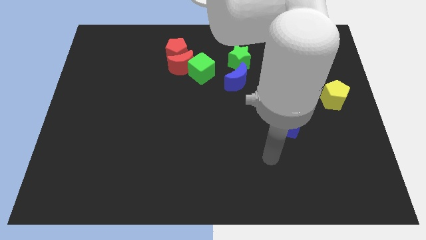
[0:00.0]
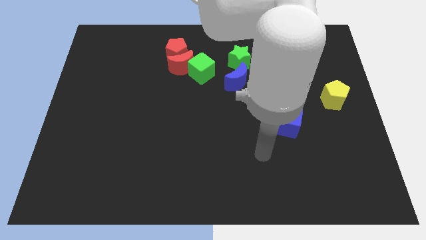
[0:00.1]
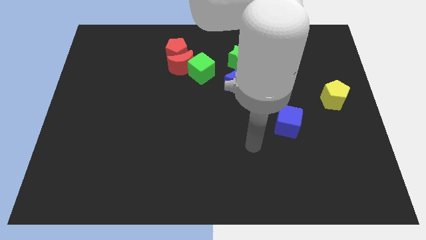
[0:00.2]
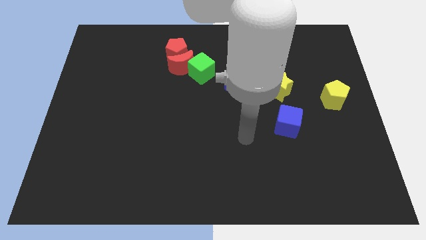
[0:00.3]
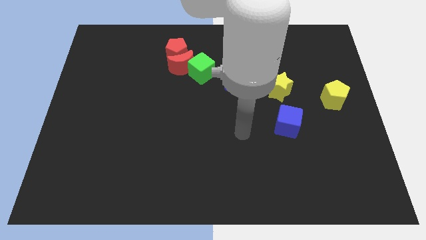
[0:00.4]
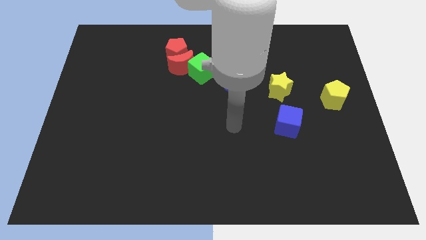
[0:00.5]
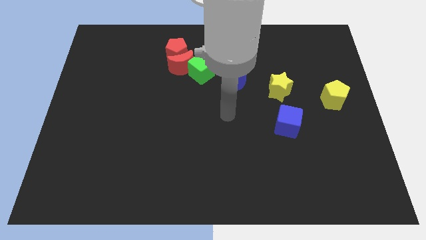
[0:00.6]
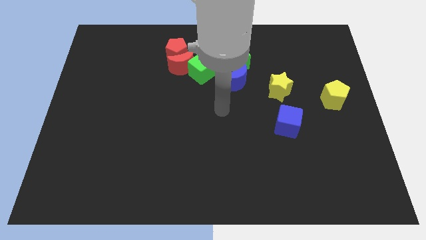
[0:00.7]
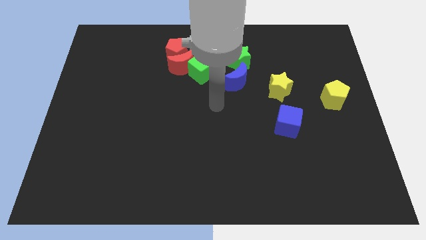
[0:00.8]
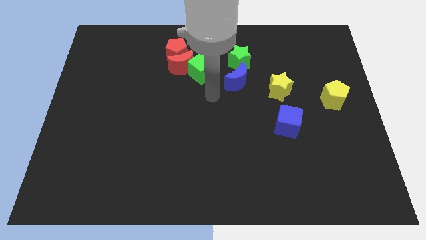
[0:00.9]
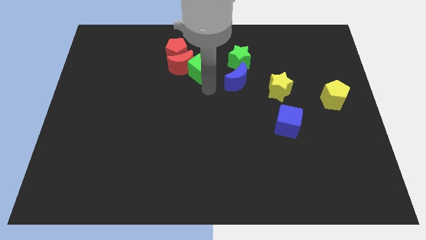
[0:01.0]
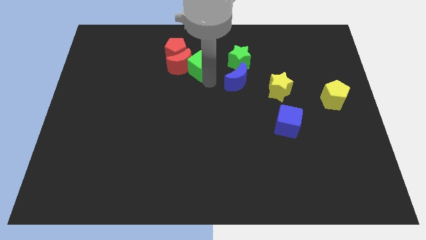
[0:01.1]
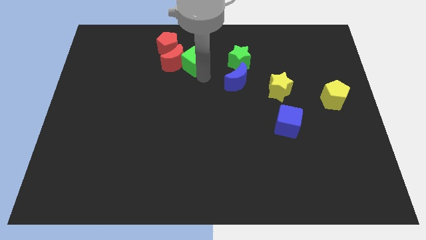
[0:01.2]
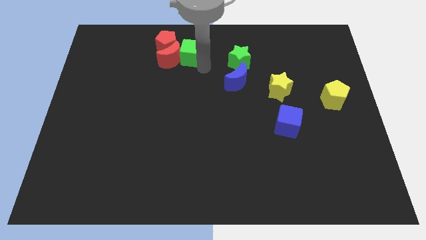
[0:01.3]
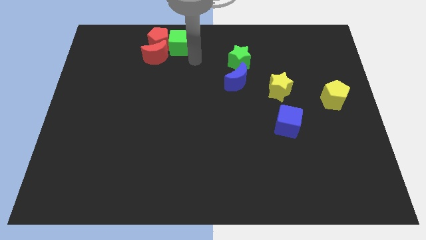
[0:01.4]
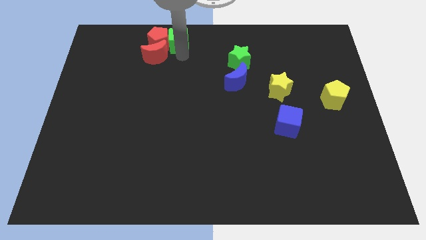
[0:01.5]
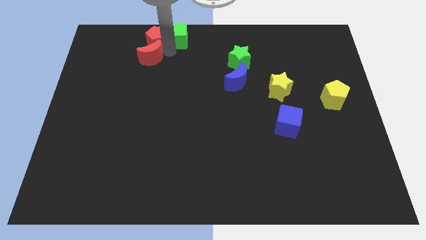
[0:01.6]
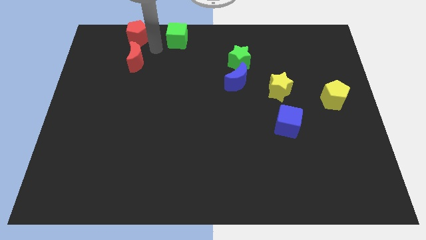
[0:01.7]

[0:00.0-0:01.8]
pull the red moon apart from the red pentagon and green cube

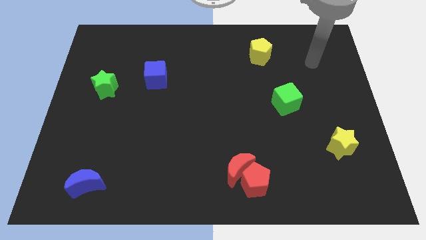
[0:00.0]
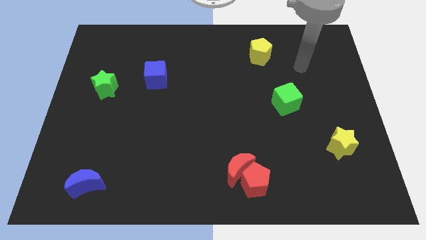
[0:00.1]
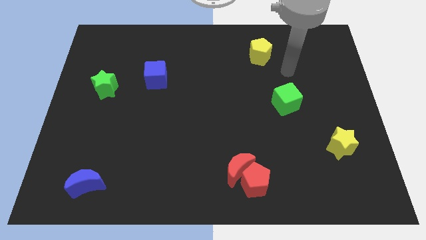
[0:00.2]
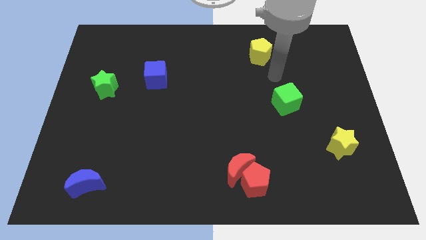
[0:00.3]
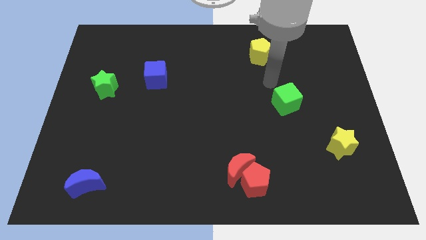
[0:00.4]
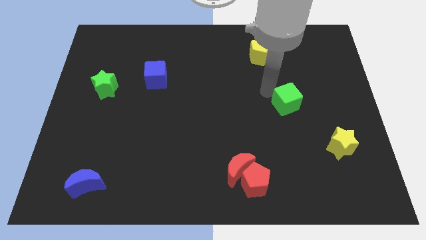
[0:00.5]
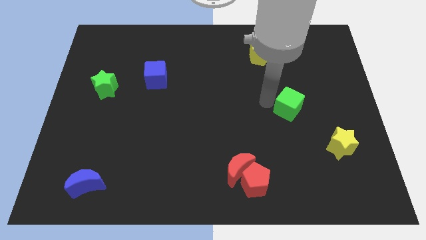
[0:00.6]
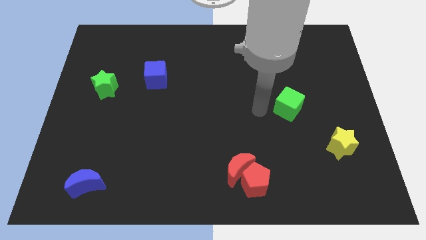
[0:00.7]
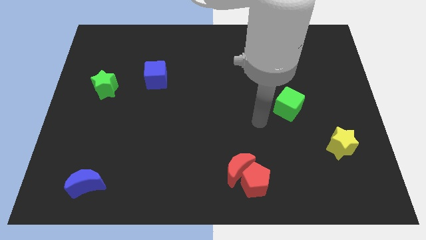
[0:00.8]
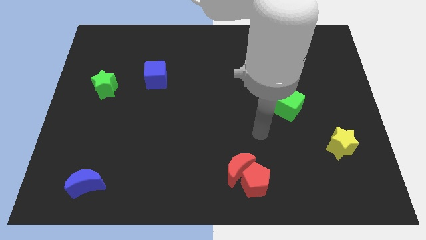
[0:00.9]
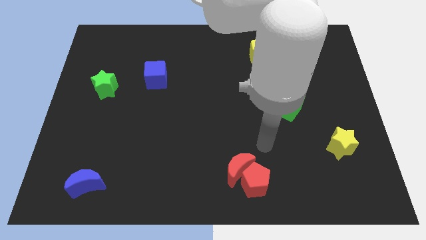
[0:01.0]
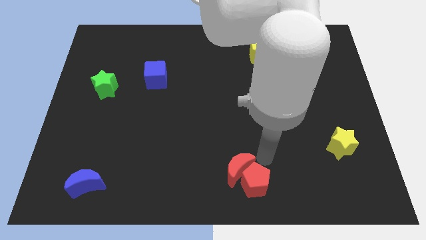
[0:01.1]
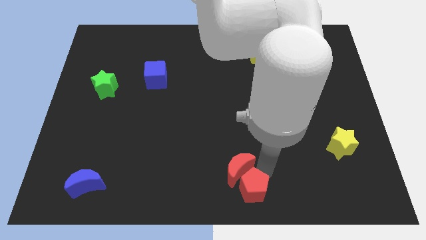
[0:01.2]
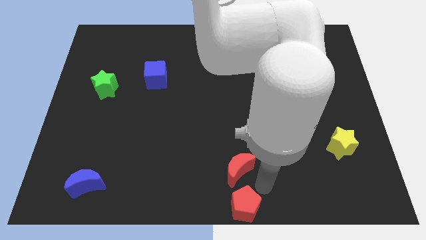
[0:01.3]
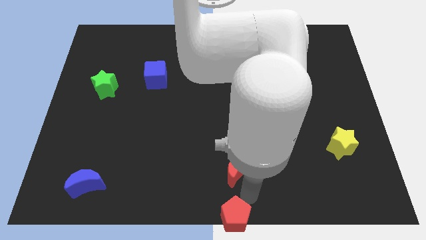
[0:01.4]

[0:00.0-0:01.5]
separate the red moon from the red pentagon

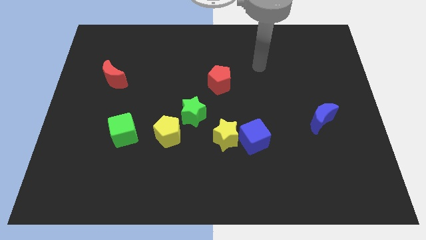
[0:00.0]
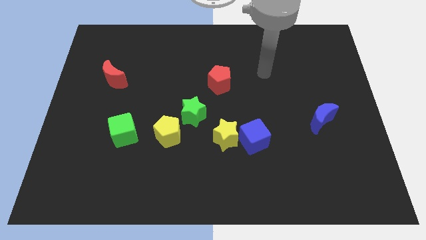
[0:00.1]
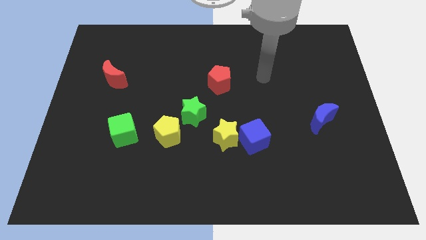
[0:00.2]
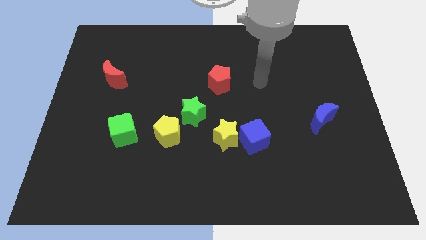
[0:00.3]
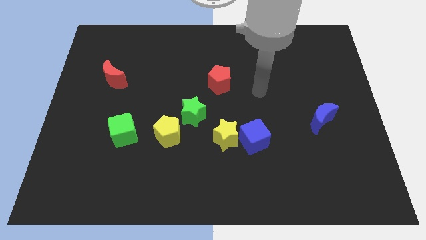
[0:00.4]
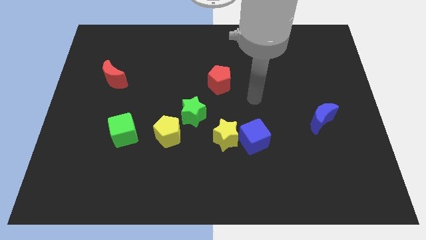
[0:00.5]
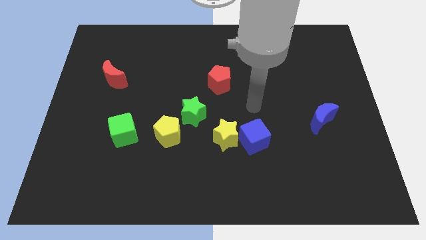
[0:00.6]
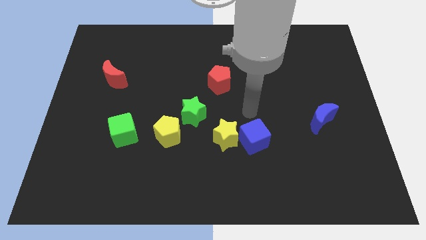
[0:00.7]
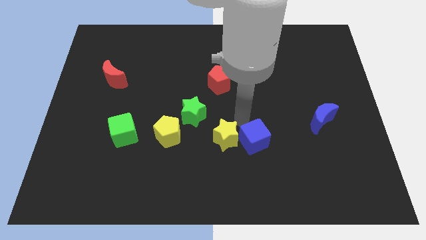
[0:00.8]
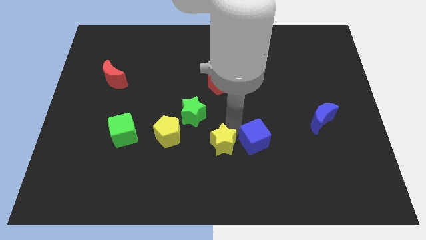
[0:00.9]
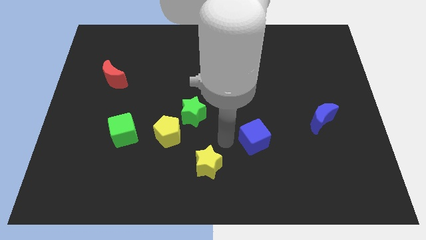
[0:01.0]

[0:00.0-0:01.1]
pull the blue cube apart from the yellow star

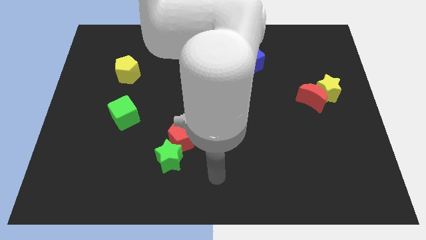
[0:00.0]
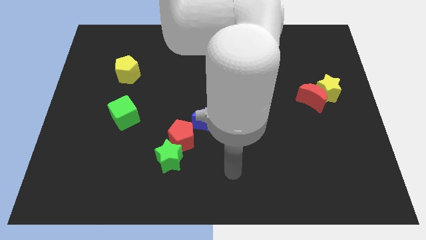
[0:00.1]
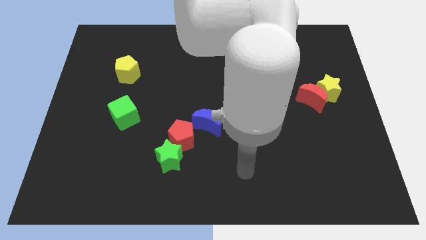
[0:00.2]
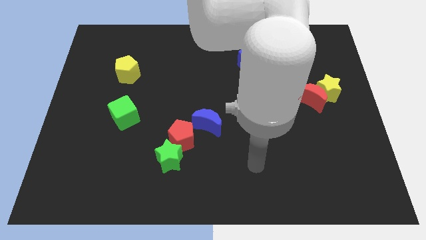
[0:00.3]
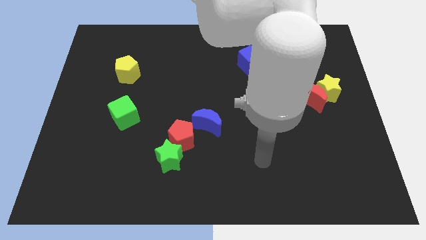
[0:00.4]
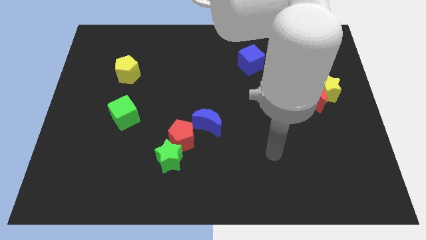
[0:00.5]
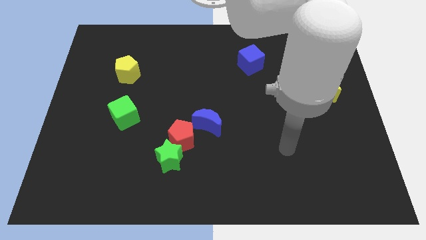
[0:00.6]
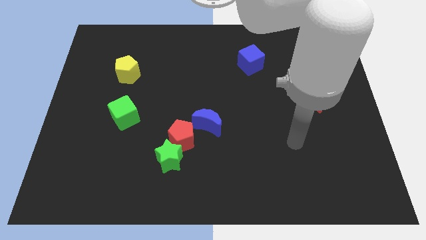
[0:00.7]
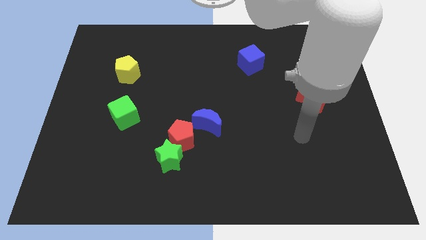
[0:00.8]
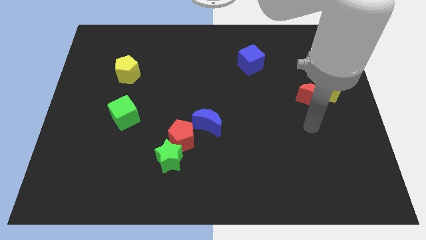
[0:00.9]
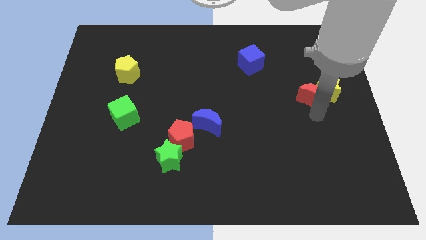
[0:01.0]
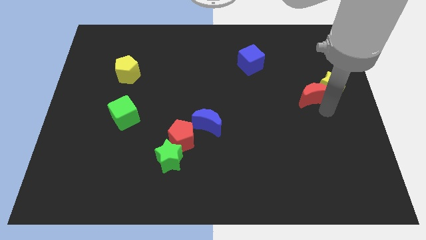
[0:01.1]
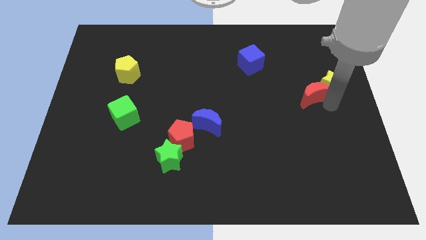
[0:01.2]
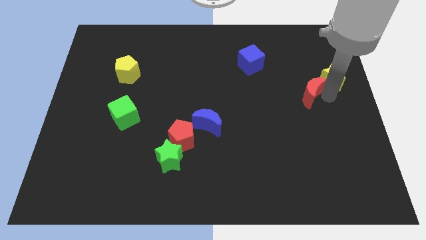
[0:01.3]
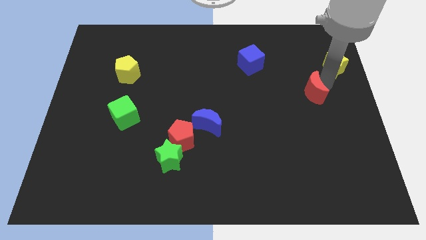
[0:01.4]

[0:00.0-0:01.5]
move the red moon away from the yellow star

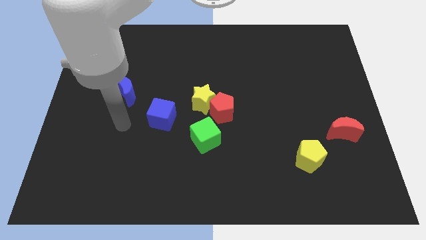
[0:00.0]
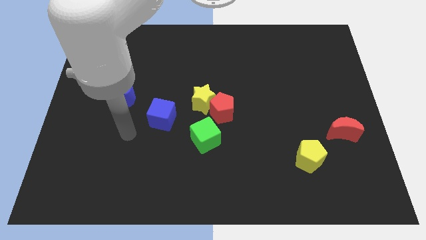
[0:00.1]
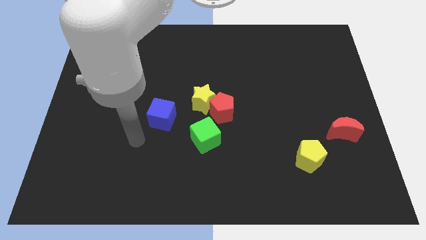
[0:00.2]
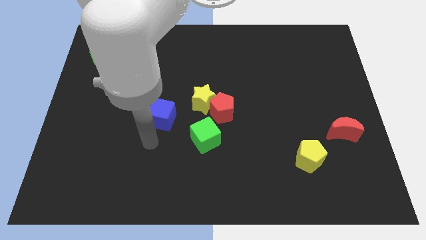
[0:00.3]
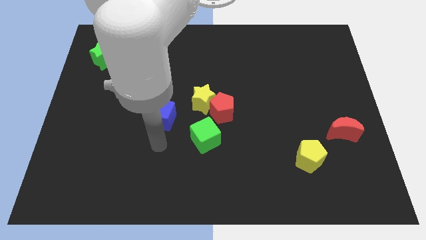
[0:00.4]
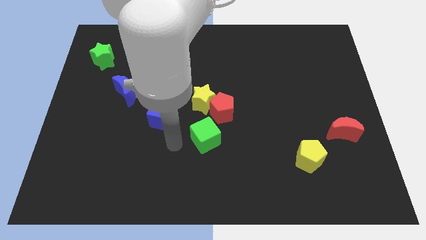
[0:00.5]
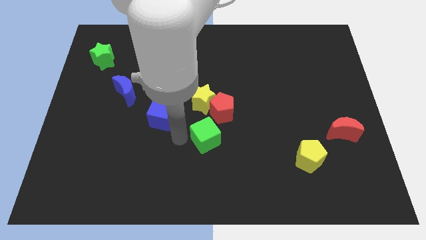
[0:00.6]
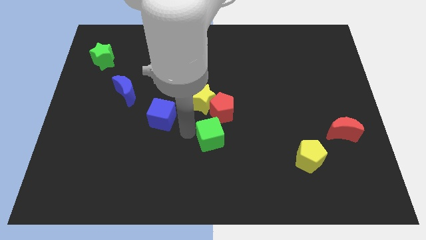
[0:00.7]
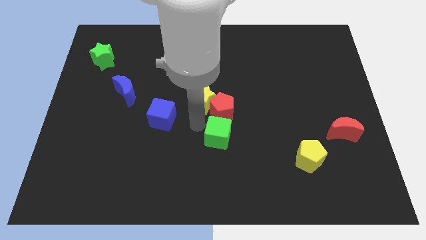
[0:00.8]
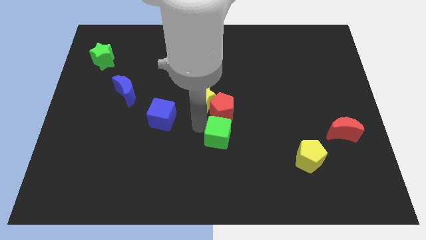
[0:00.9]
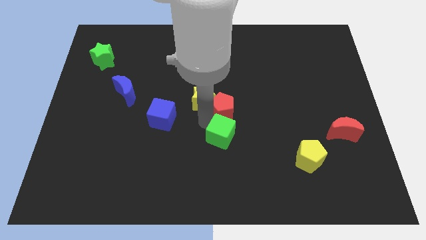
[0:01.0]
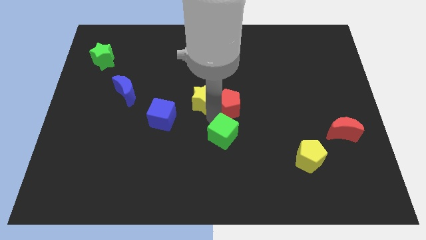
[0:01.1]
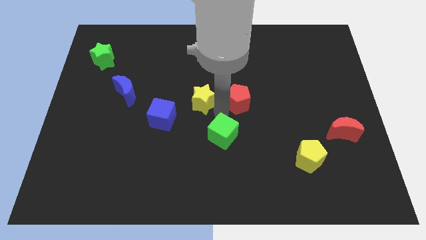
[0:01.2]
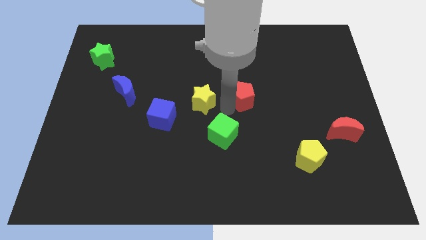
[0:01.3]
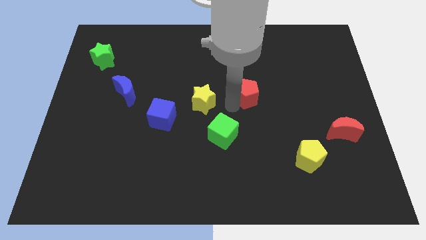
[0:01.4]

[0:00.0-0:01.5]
separate the red pentagon from the yellow star and green cube

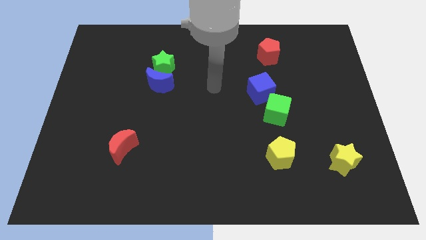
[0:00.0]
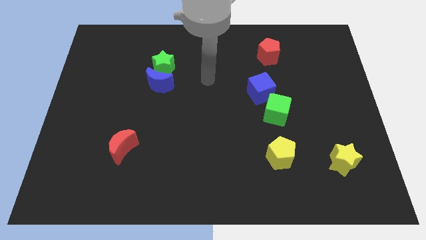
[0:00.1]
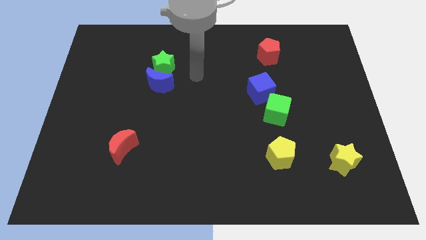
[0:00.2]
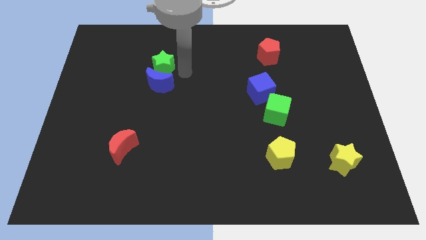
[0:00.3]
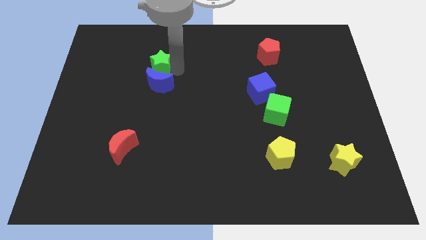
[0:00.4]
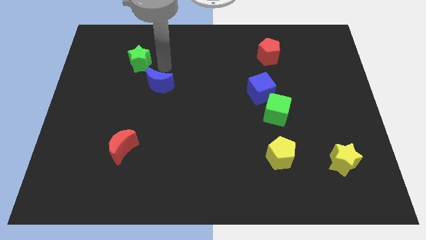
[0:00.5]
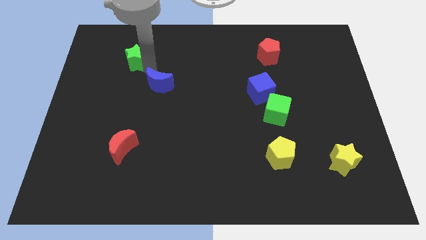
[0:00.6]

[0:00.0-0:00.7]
pull the blue moon apart from the green star

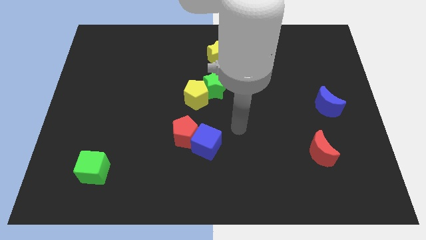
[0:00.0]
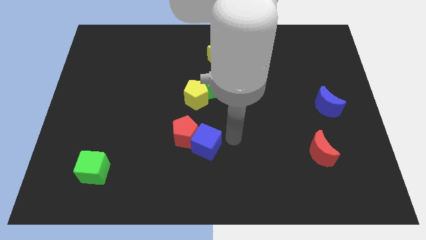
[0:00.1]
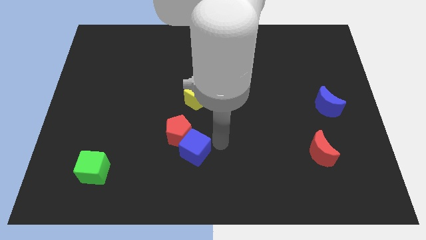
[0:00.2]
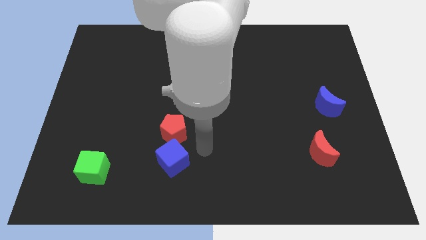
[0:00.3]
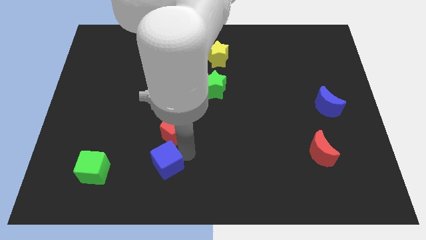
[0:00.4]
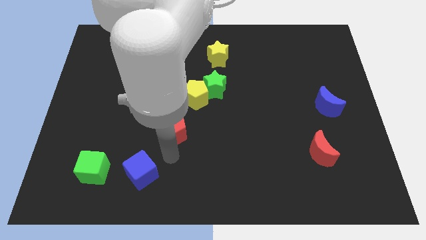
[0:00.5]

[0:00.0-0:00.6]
pull the red pentagon apart from the blue cube

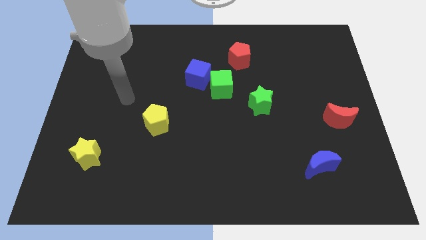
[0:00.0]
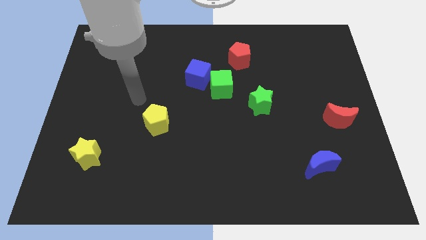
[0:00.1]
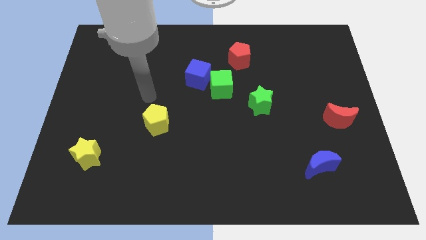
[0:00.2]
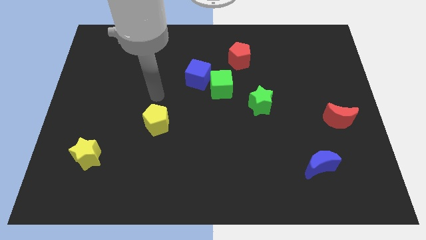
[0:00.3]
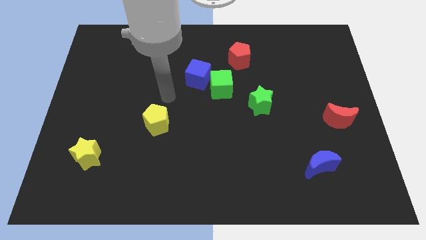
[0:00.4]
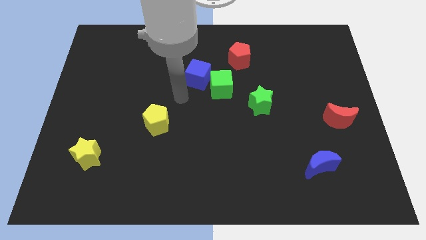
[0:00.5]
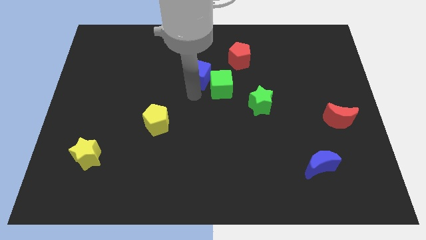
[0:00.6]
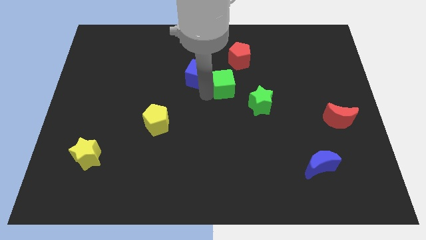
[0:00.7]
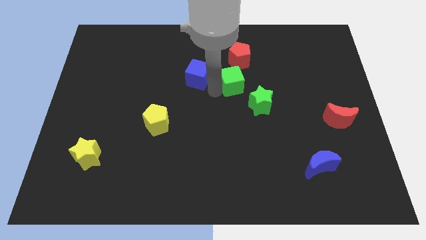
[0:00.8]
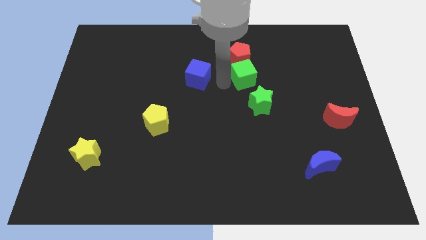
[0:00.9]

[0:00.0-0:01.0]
move the blue cube away from the green cube
